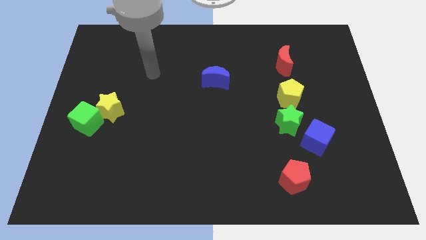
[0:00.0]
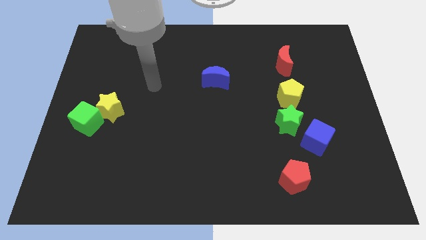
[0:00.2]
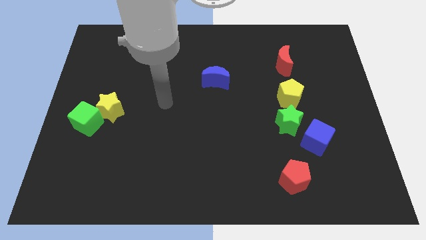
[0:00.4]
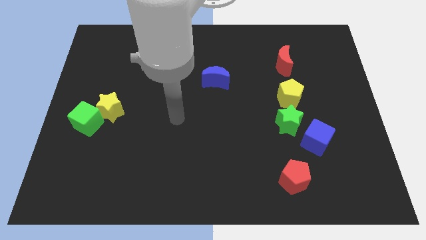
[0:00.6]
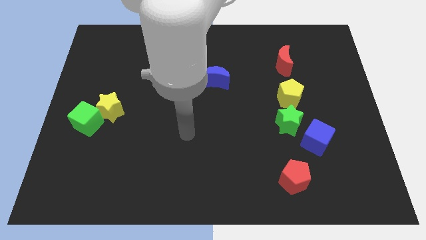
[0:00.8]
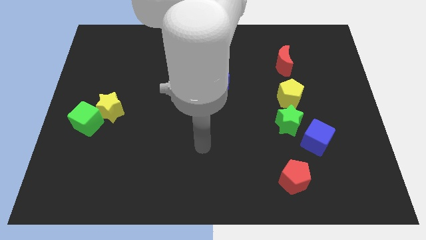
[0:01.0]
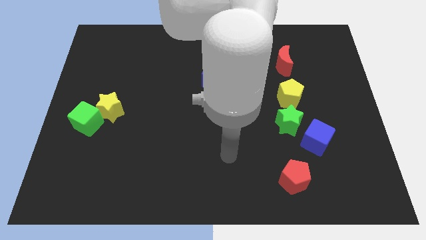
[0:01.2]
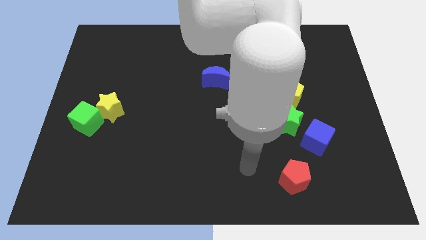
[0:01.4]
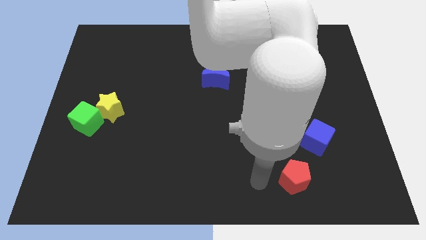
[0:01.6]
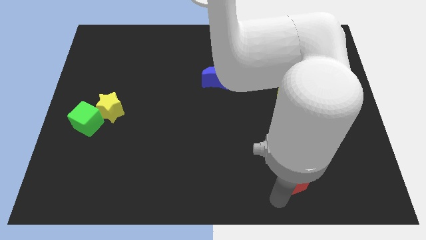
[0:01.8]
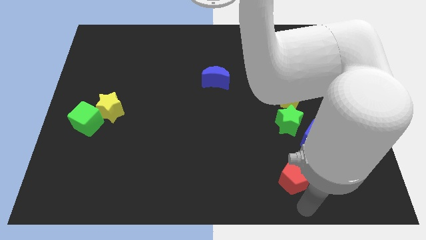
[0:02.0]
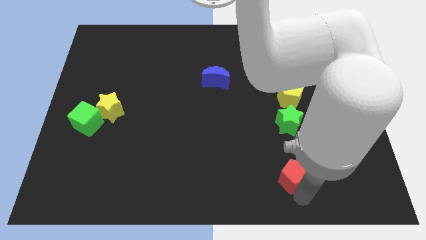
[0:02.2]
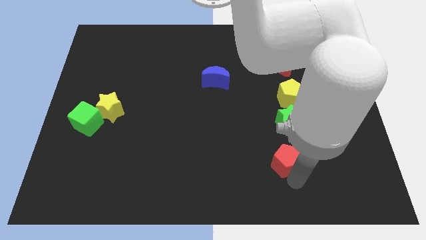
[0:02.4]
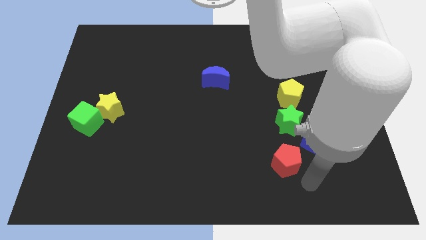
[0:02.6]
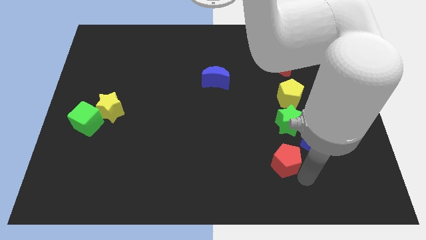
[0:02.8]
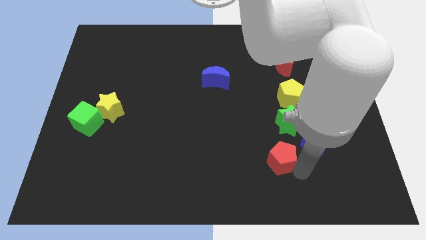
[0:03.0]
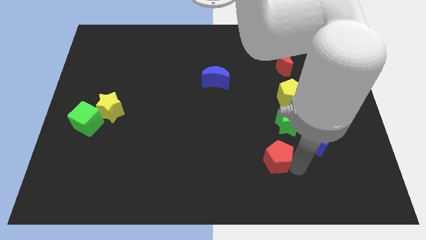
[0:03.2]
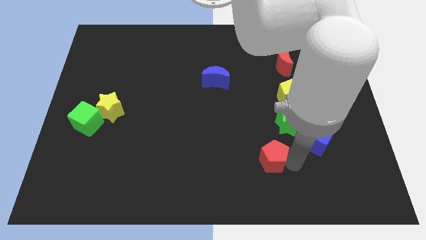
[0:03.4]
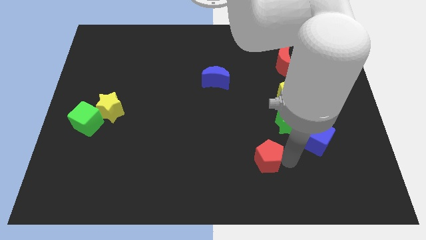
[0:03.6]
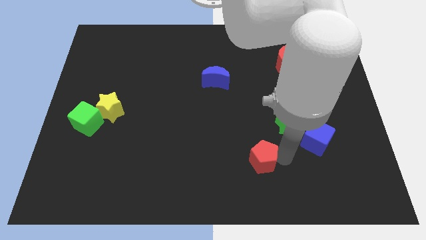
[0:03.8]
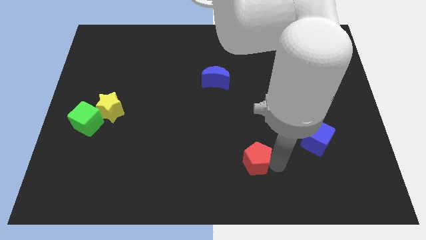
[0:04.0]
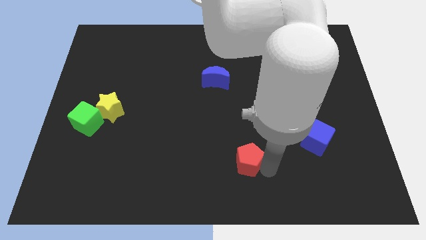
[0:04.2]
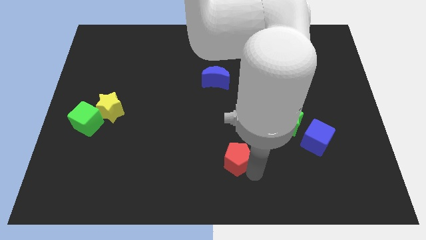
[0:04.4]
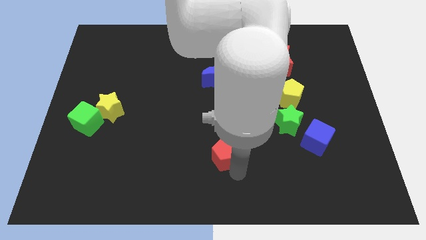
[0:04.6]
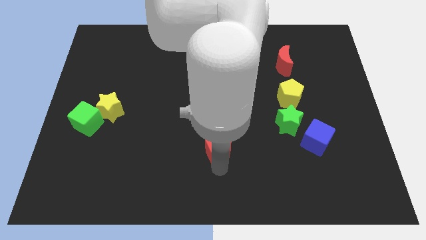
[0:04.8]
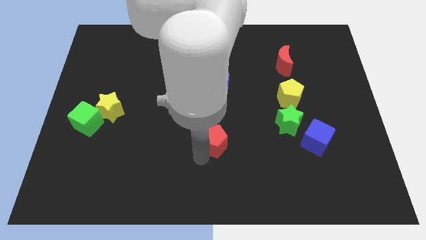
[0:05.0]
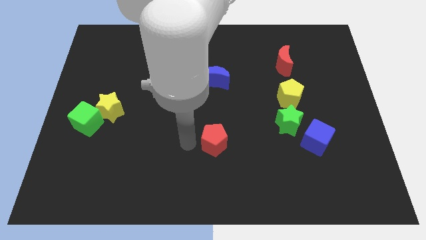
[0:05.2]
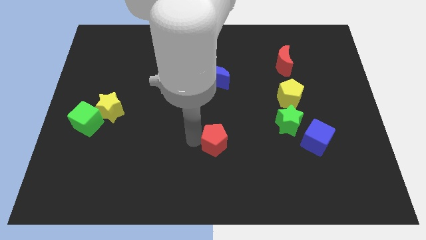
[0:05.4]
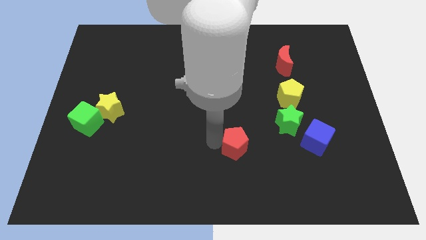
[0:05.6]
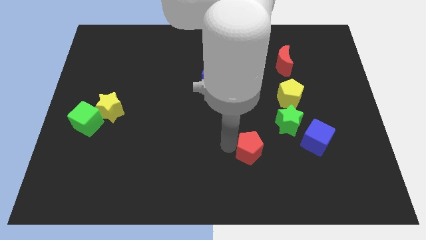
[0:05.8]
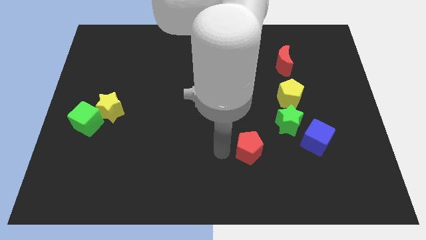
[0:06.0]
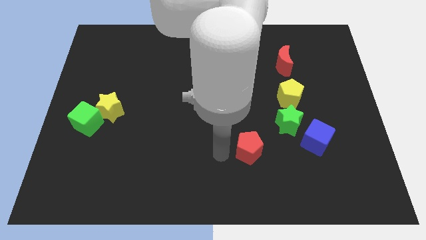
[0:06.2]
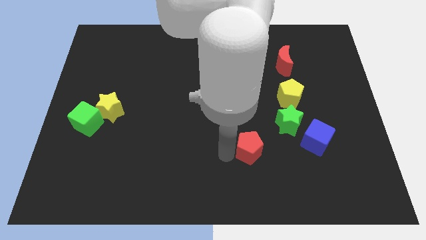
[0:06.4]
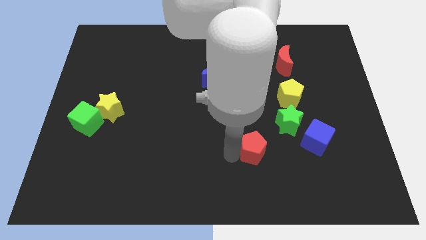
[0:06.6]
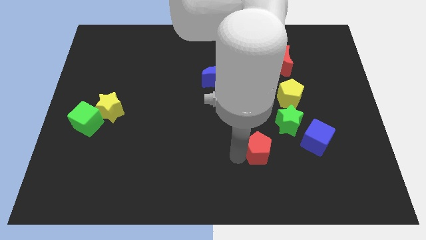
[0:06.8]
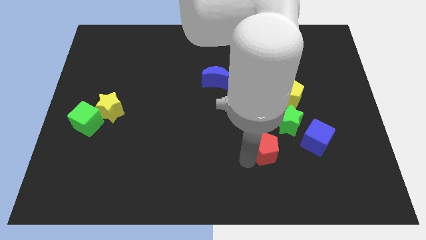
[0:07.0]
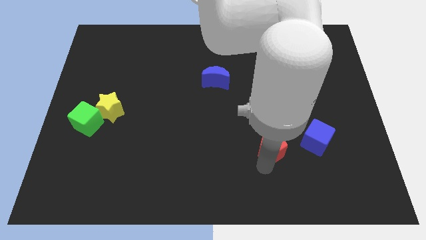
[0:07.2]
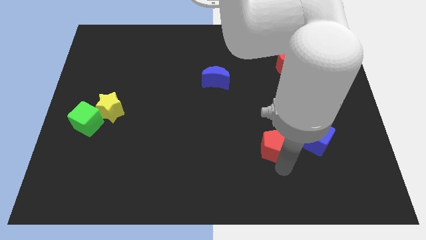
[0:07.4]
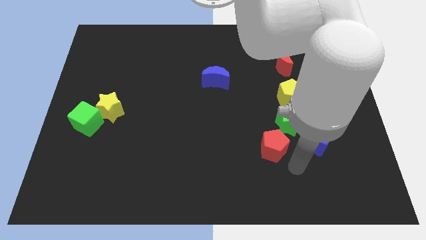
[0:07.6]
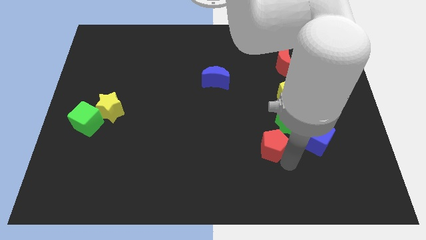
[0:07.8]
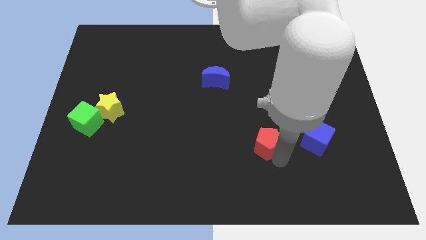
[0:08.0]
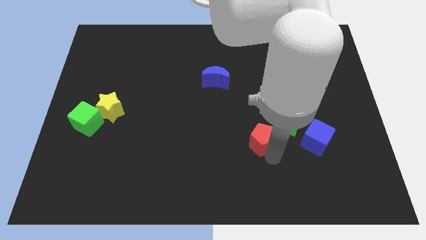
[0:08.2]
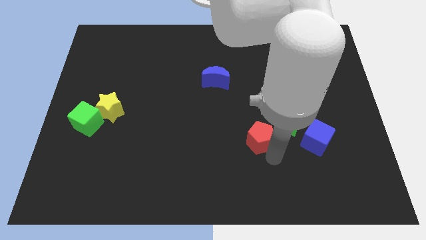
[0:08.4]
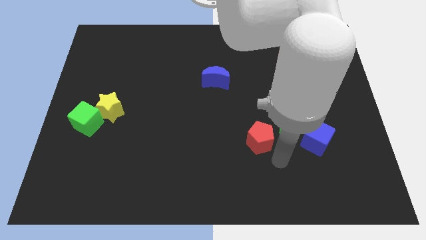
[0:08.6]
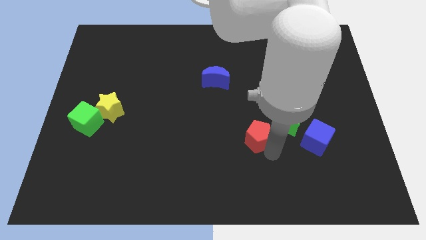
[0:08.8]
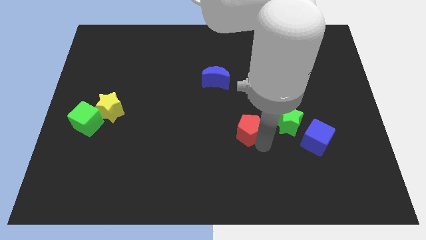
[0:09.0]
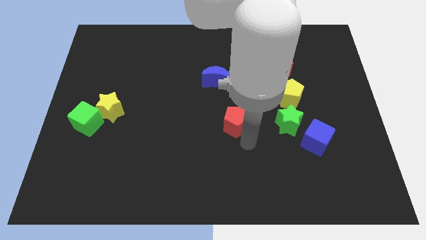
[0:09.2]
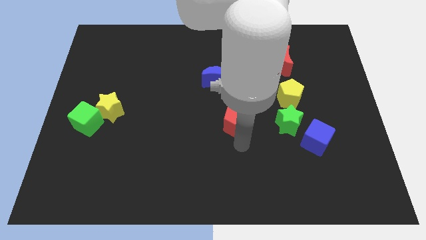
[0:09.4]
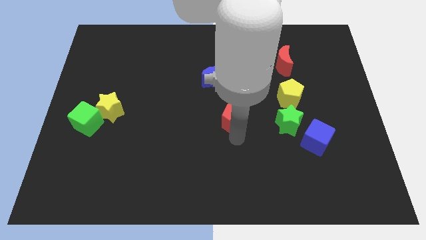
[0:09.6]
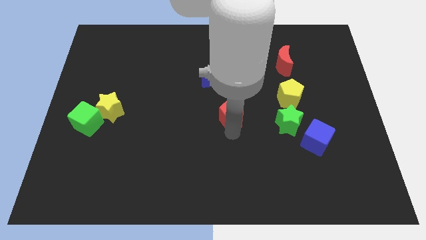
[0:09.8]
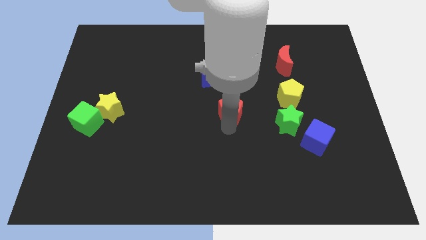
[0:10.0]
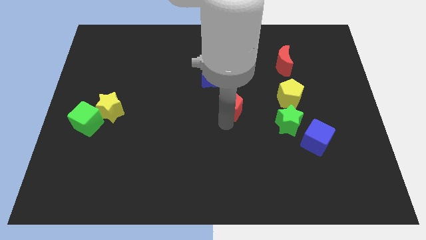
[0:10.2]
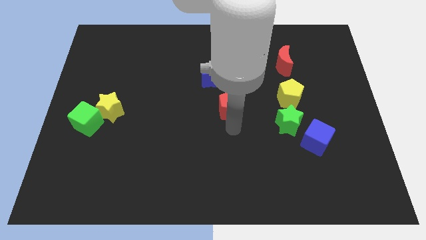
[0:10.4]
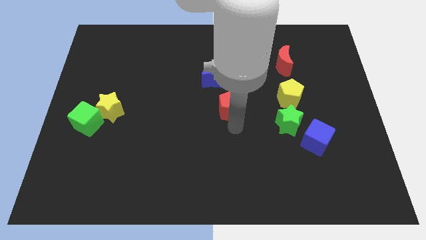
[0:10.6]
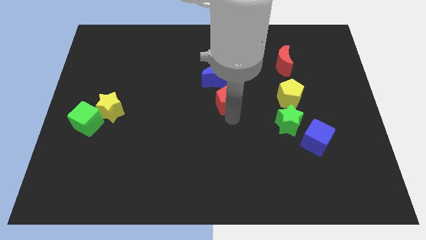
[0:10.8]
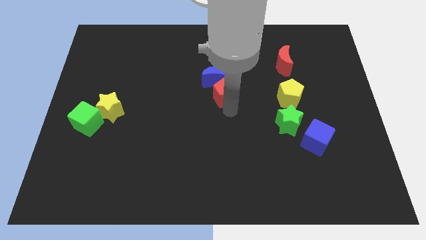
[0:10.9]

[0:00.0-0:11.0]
move the red pentagon next to the blue moon

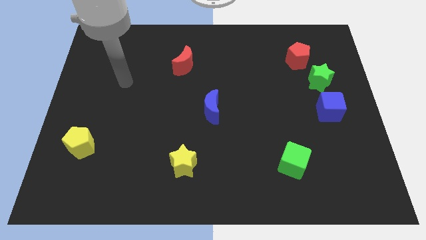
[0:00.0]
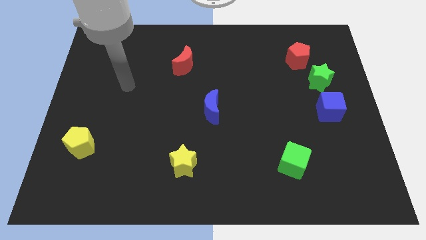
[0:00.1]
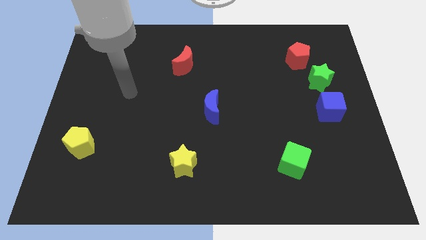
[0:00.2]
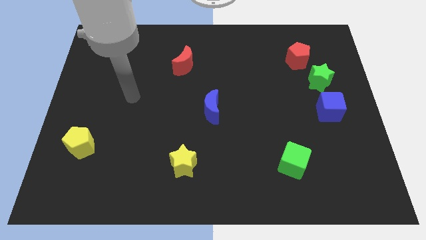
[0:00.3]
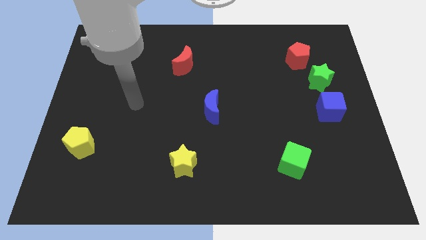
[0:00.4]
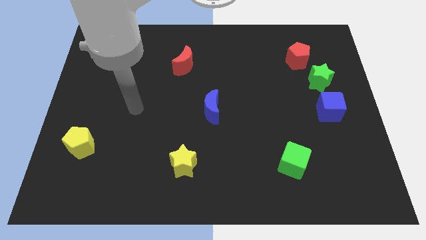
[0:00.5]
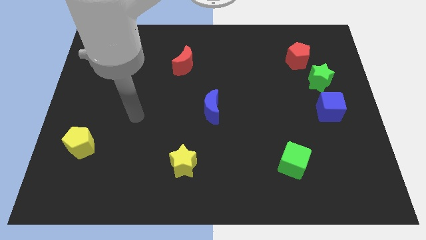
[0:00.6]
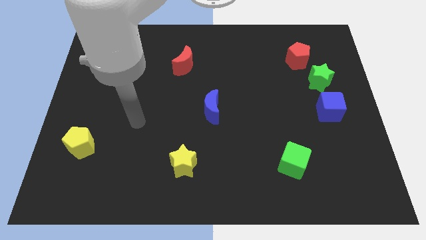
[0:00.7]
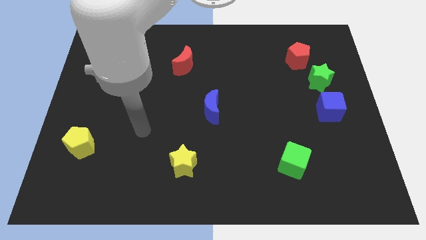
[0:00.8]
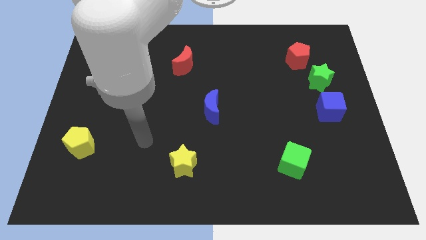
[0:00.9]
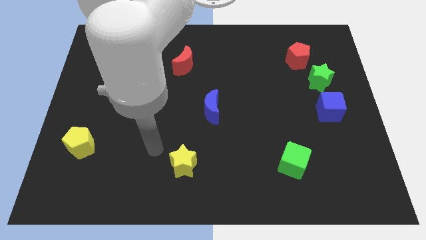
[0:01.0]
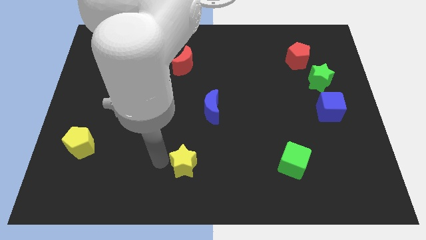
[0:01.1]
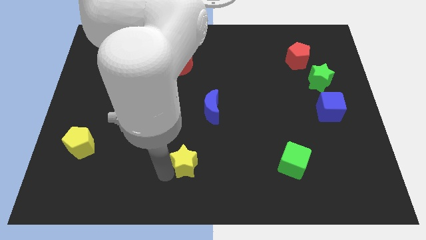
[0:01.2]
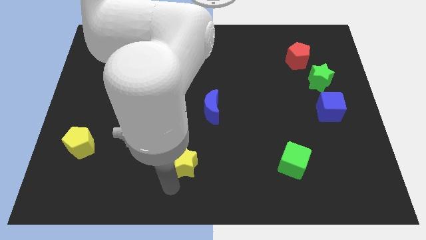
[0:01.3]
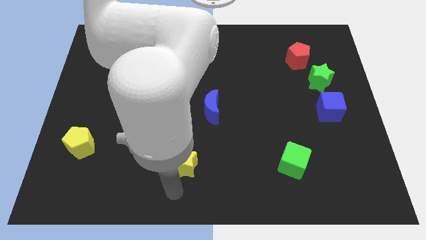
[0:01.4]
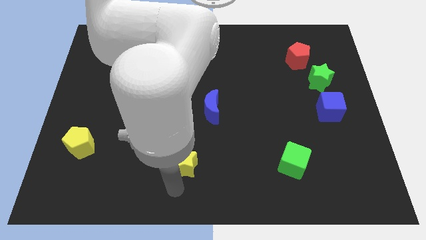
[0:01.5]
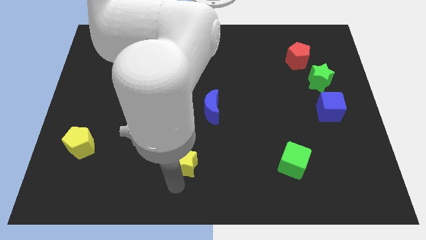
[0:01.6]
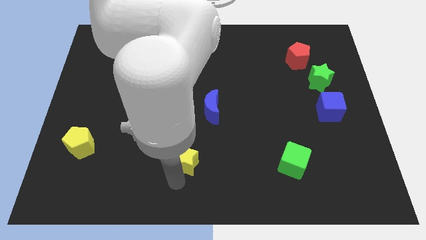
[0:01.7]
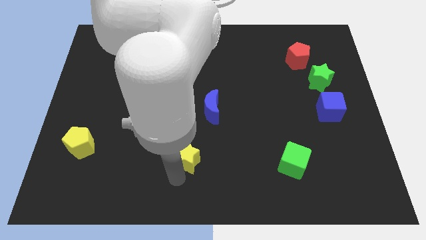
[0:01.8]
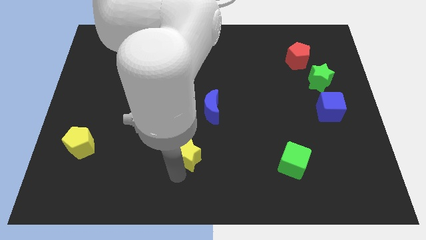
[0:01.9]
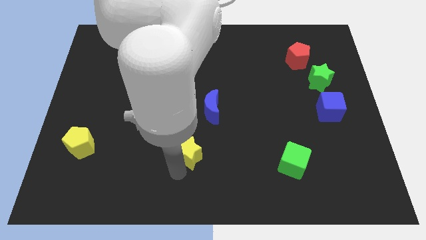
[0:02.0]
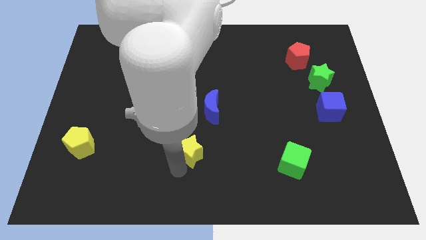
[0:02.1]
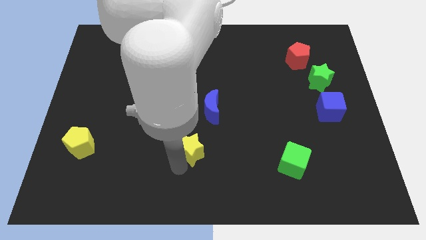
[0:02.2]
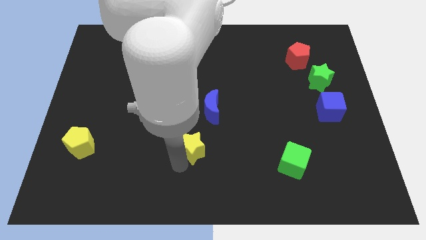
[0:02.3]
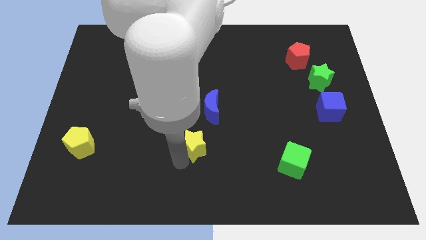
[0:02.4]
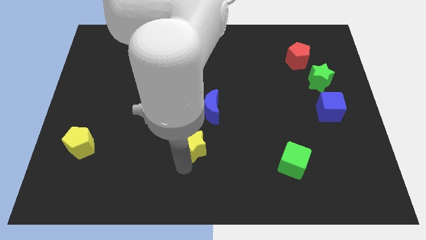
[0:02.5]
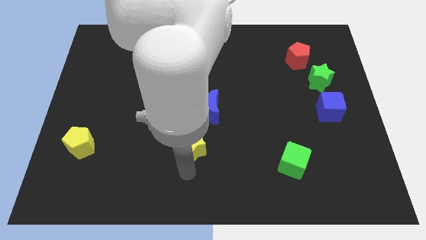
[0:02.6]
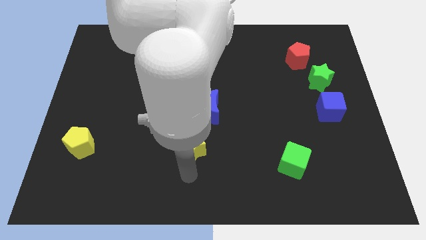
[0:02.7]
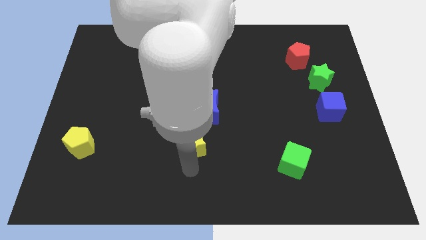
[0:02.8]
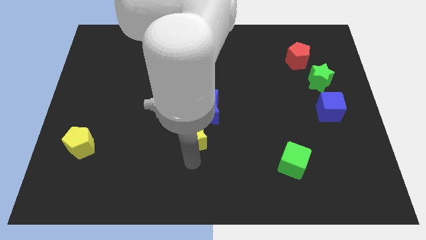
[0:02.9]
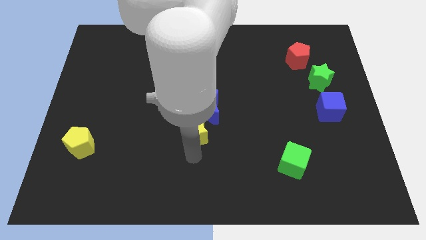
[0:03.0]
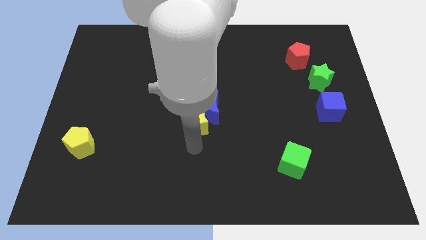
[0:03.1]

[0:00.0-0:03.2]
put the yellow star to the blue moon
